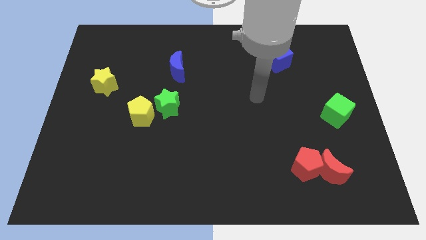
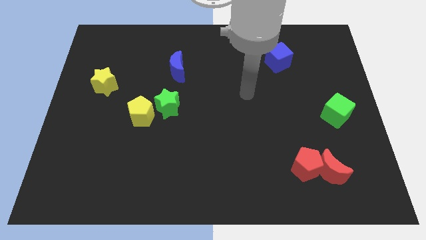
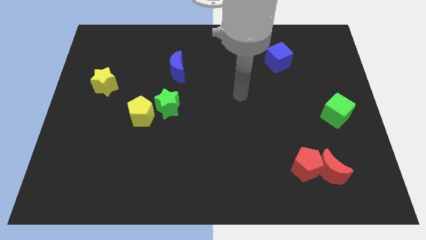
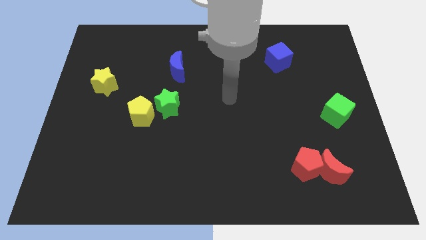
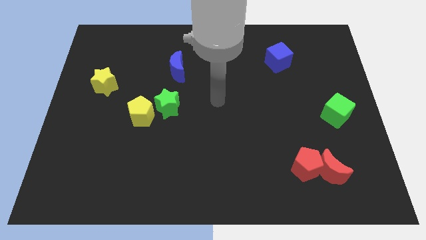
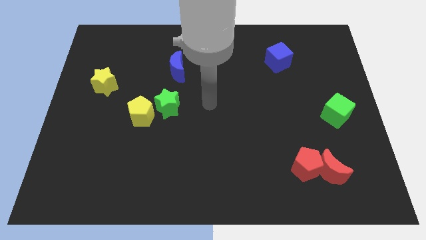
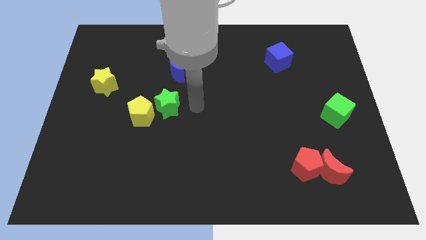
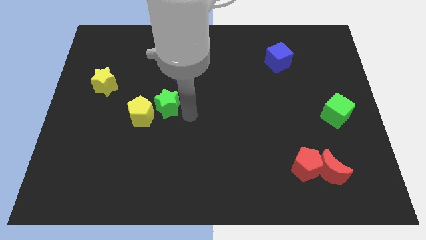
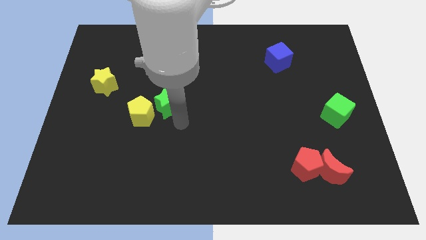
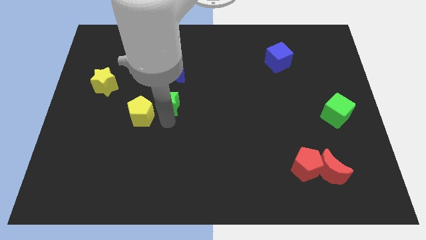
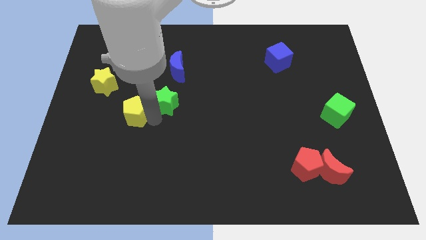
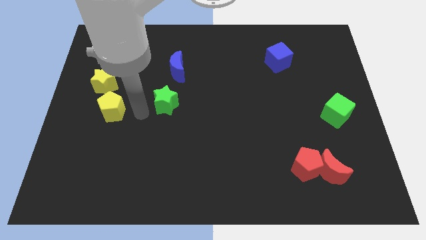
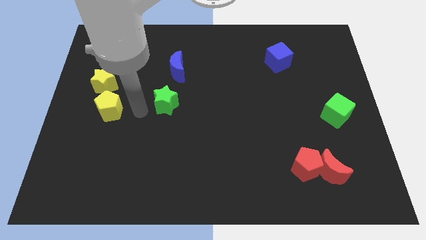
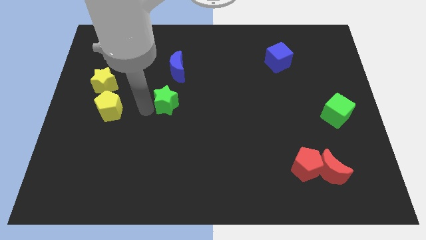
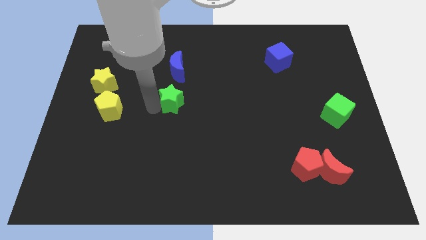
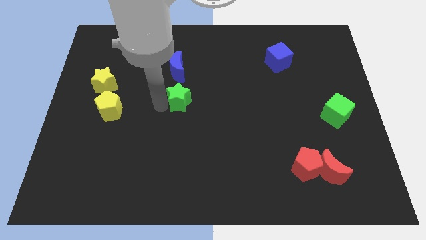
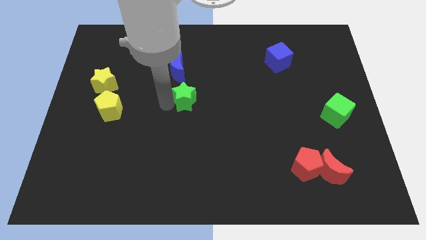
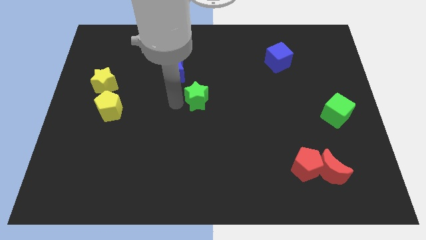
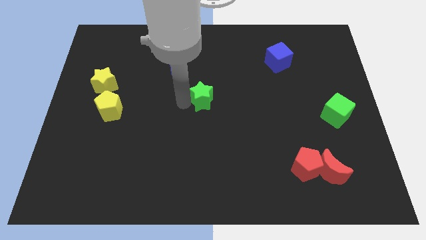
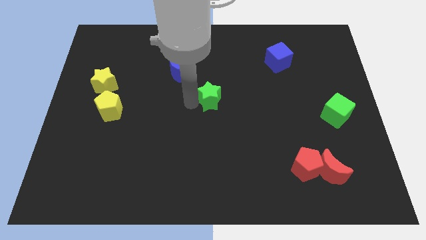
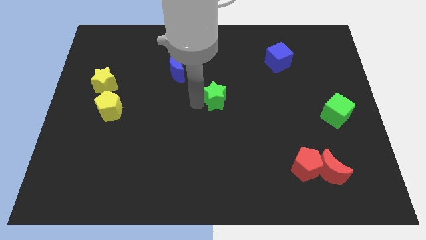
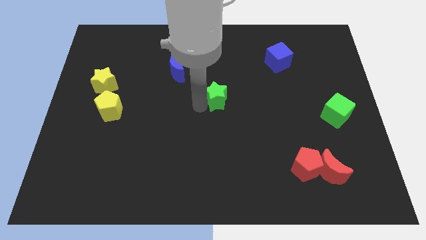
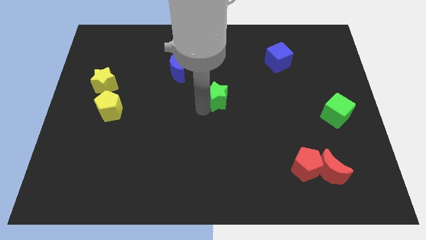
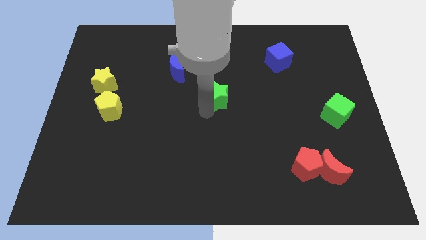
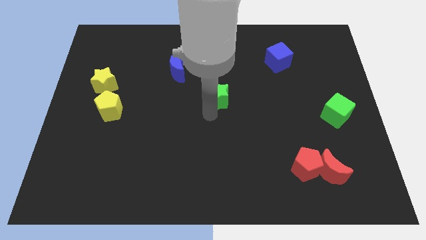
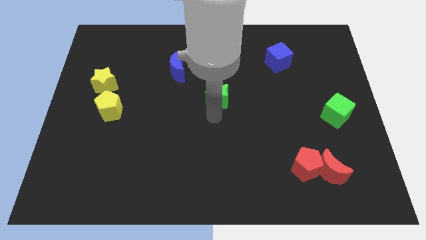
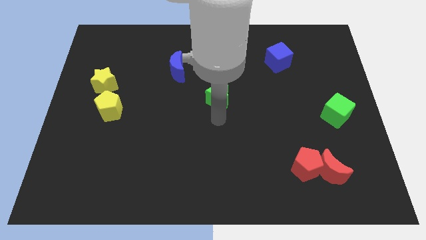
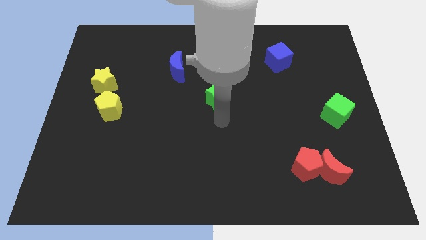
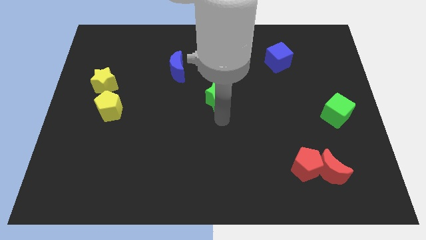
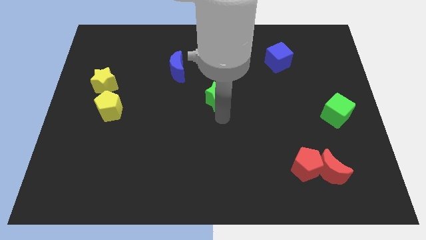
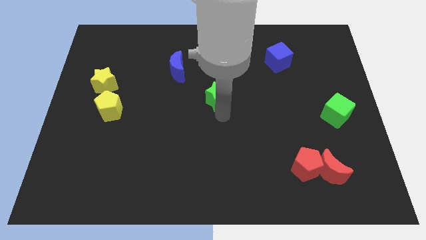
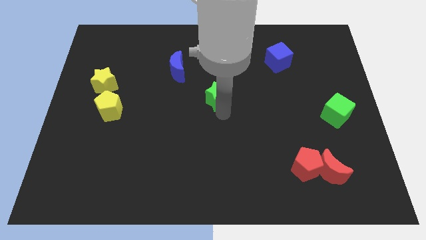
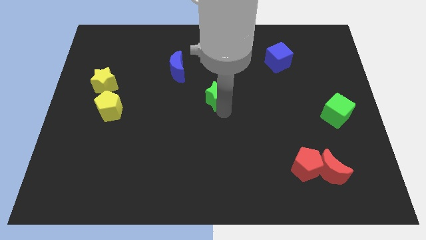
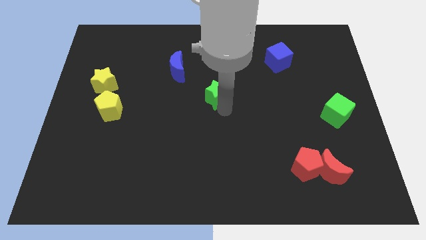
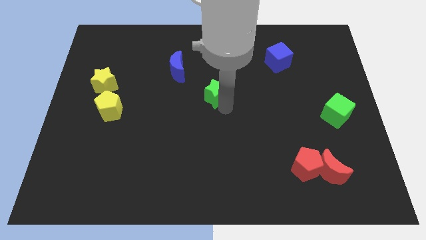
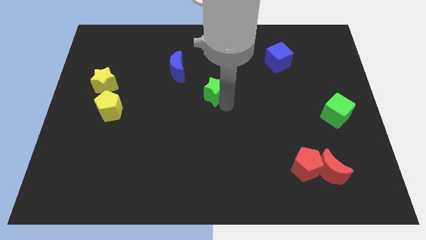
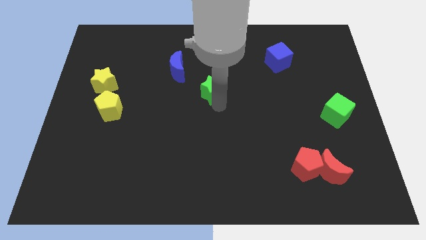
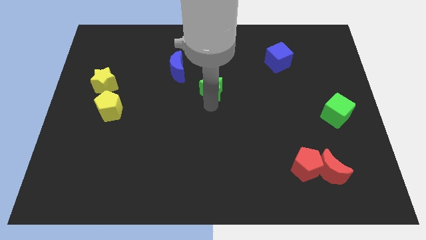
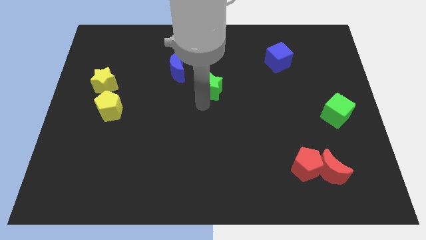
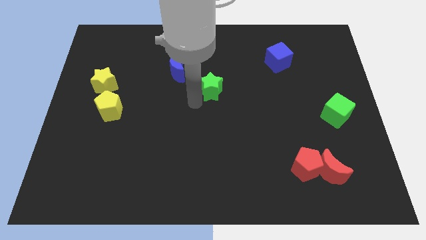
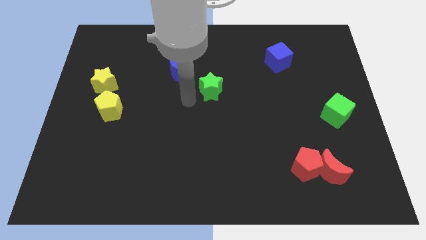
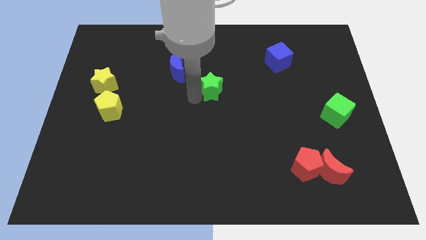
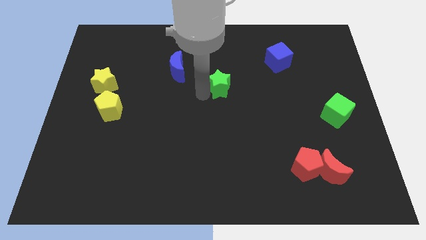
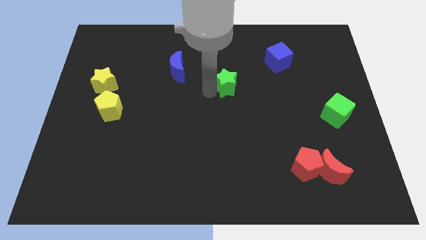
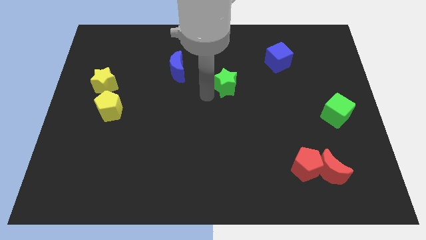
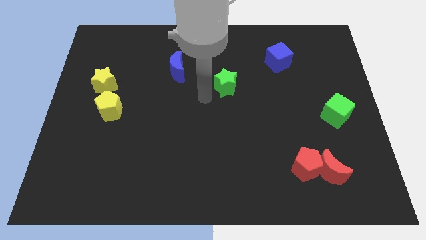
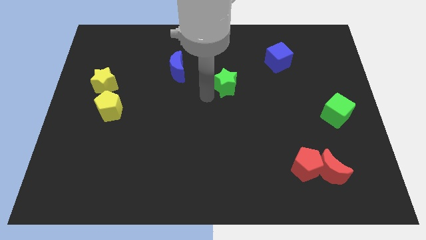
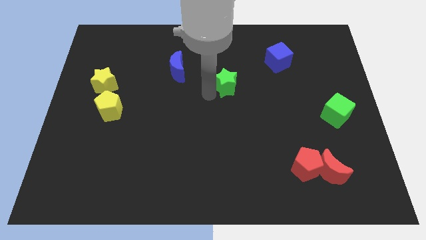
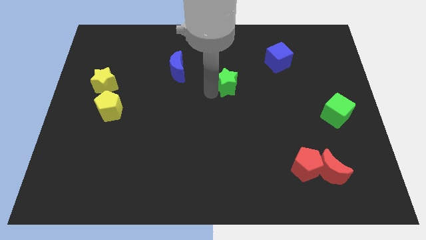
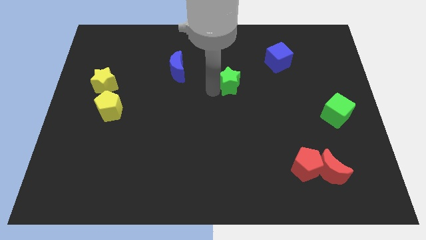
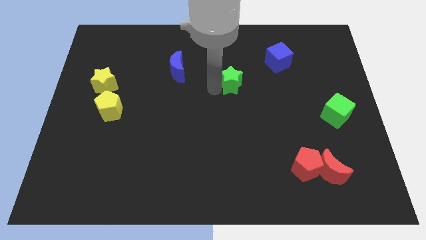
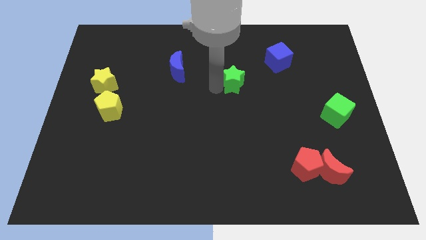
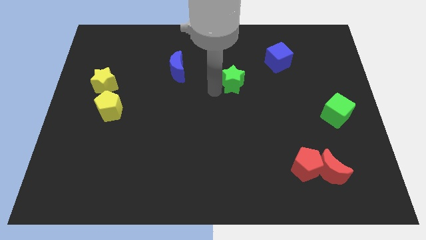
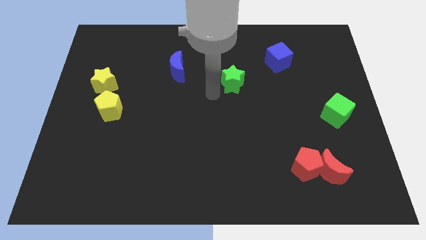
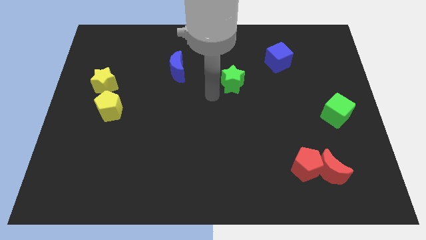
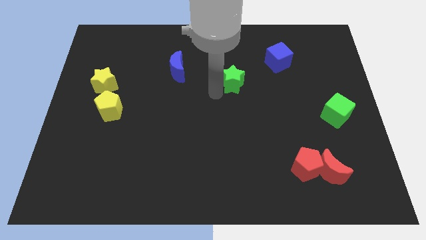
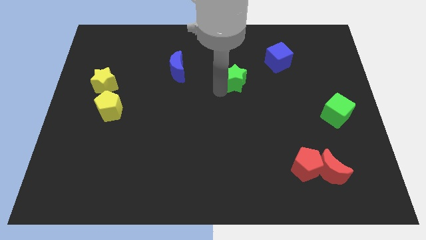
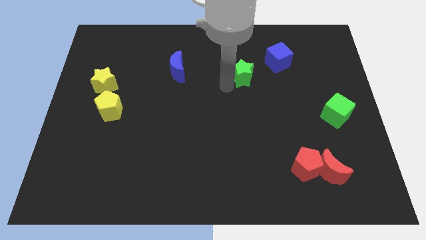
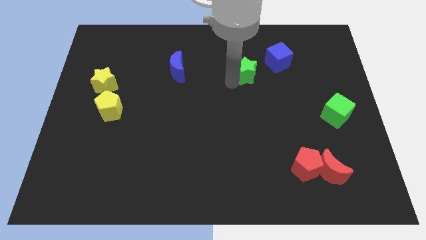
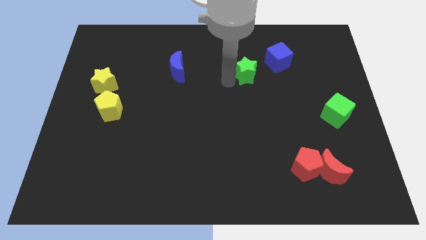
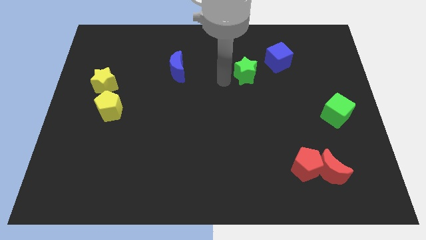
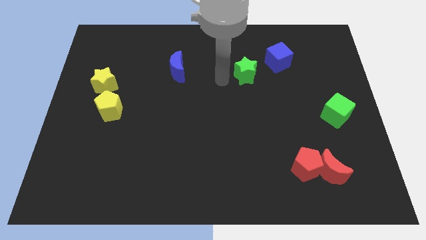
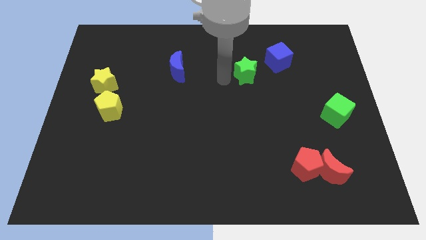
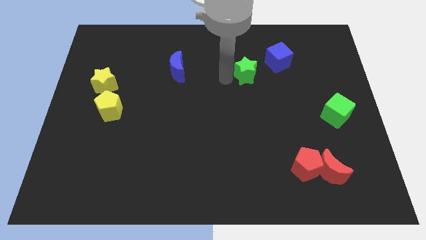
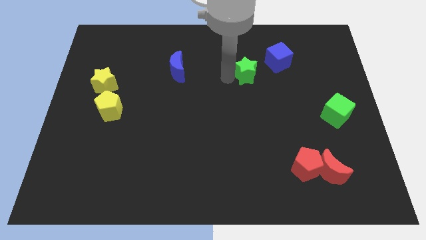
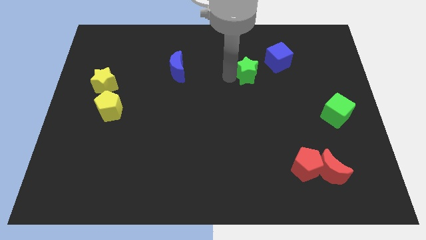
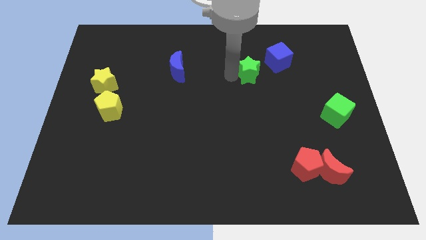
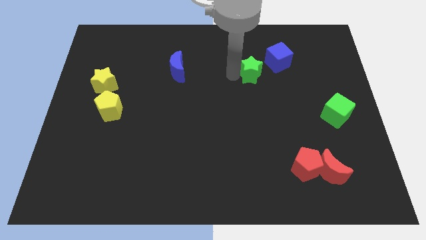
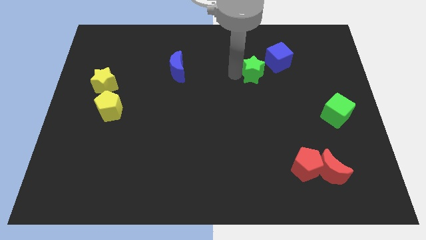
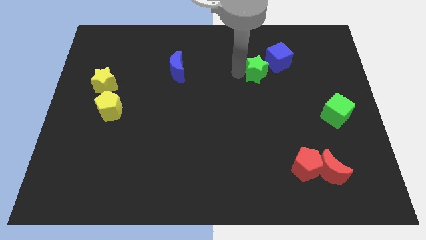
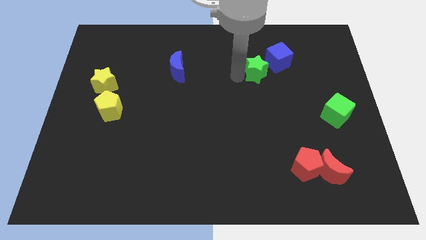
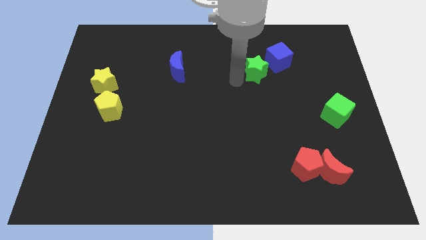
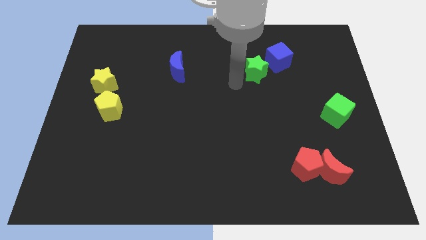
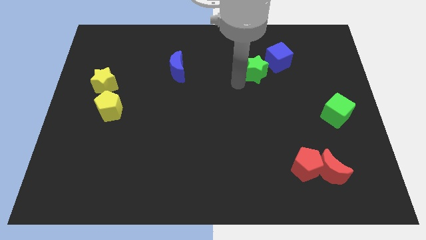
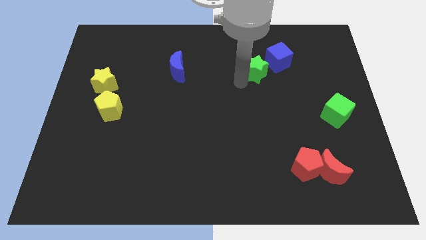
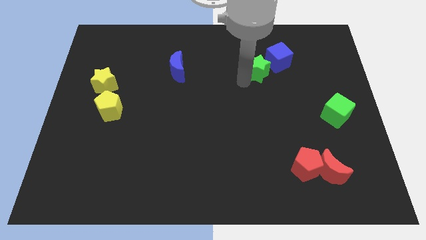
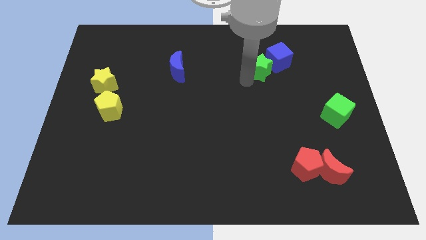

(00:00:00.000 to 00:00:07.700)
put the green star next to the blue cube
